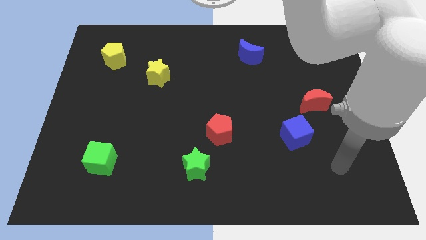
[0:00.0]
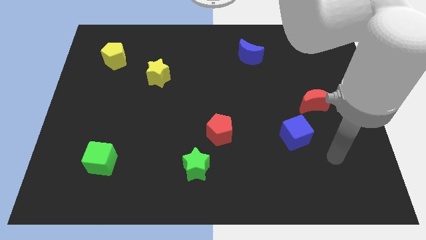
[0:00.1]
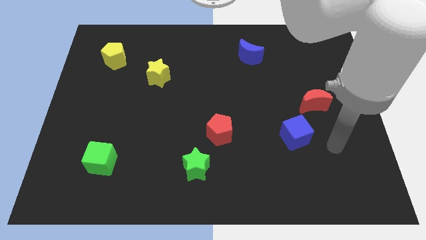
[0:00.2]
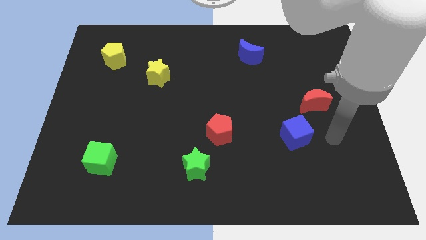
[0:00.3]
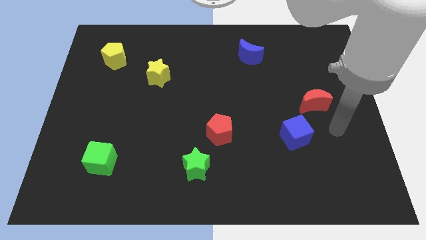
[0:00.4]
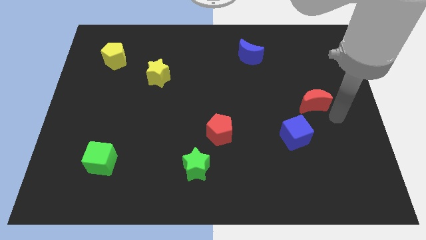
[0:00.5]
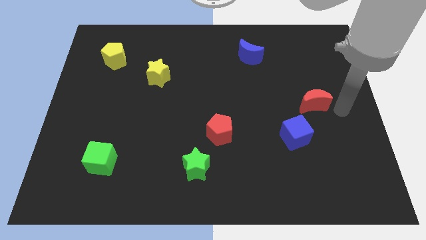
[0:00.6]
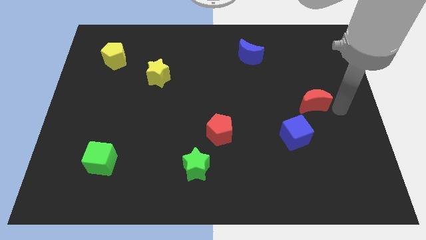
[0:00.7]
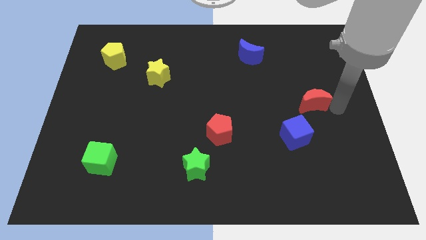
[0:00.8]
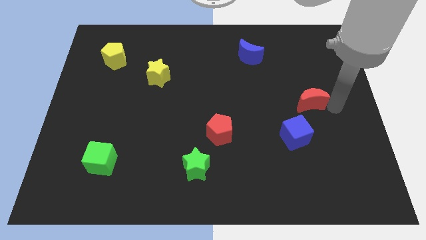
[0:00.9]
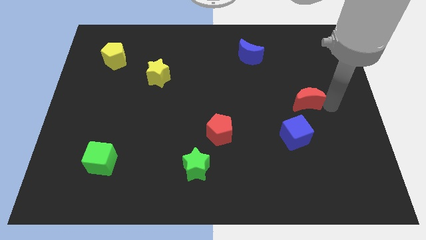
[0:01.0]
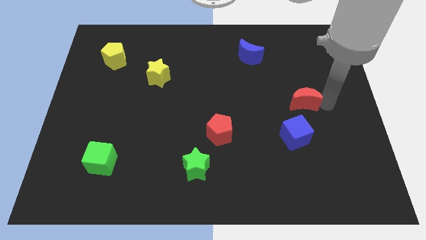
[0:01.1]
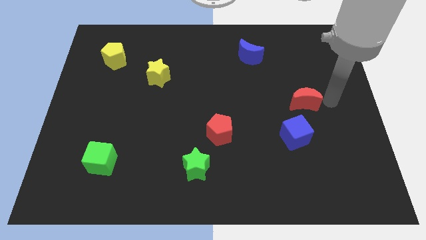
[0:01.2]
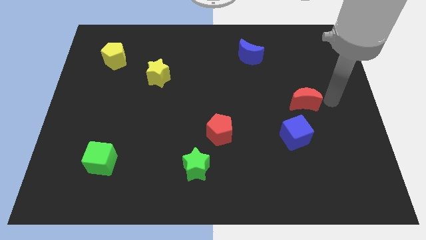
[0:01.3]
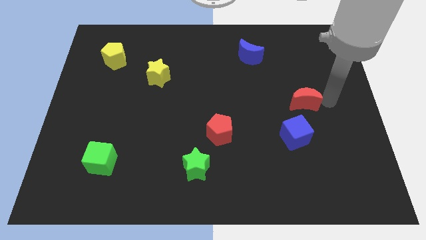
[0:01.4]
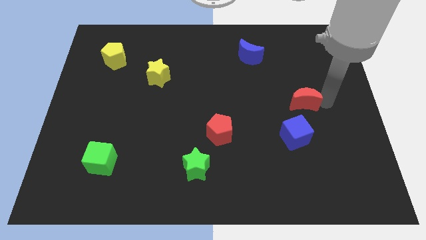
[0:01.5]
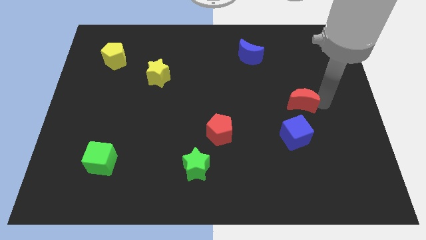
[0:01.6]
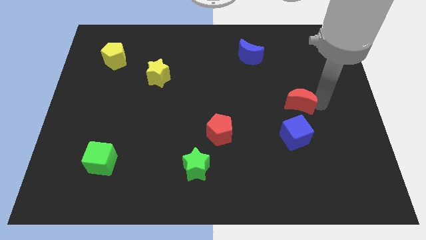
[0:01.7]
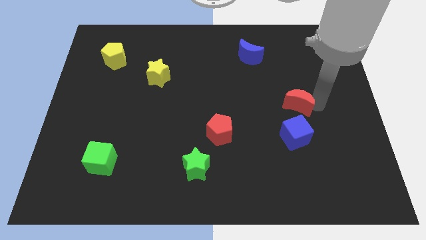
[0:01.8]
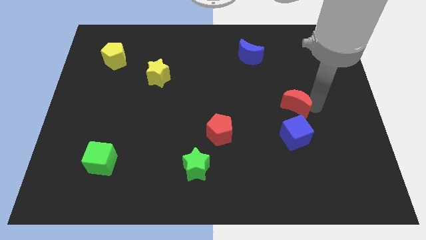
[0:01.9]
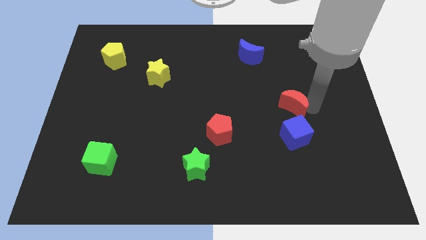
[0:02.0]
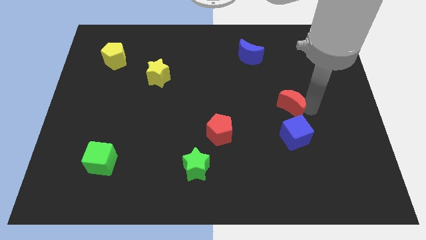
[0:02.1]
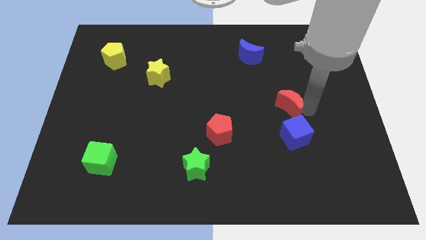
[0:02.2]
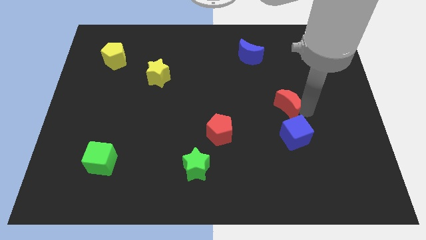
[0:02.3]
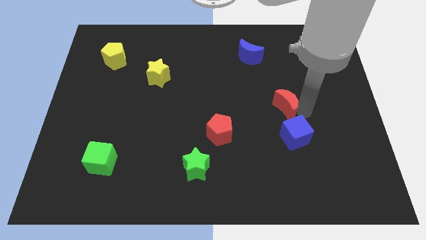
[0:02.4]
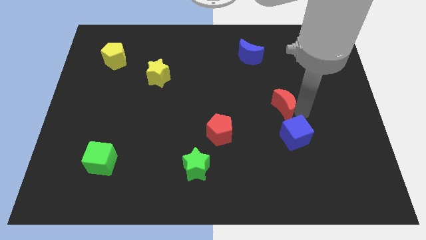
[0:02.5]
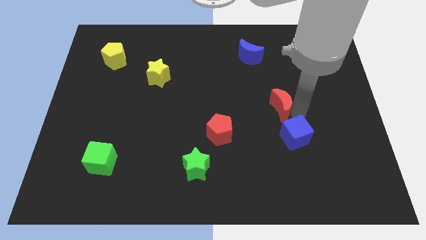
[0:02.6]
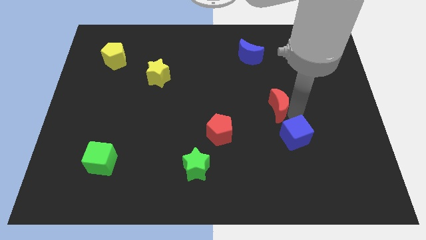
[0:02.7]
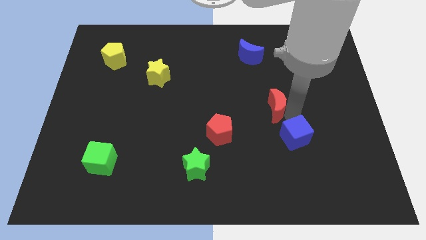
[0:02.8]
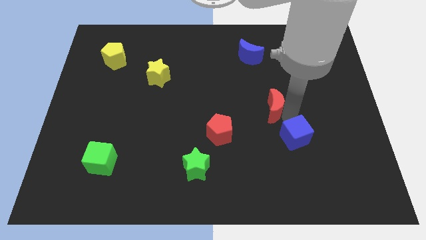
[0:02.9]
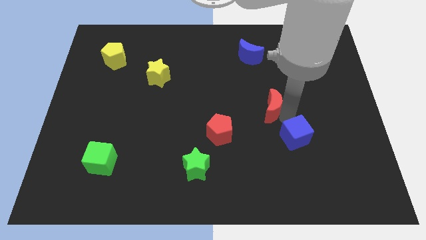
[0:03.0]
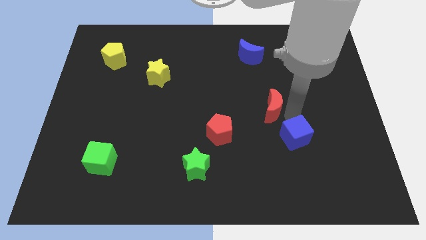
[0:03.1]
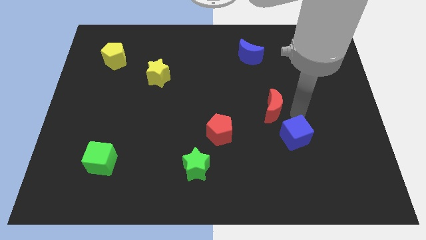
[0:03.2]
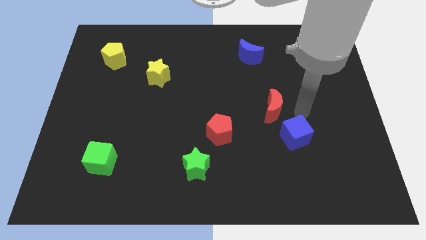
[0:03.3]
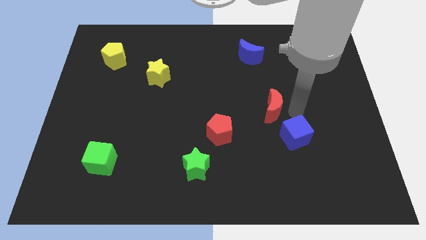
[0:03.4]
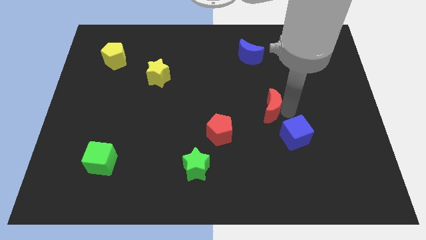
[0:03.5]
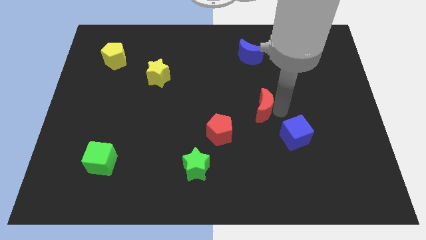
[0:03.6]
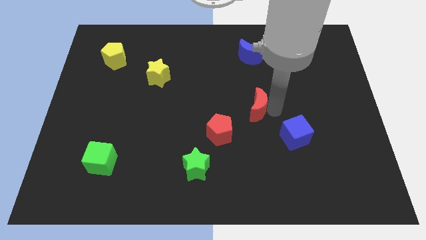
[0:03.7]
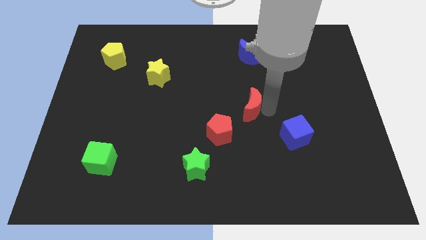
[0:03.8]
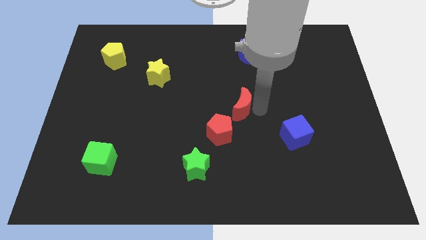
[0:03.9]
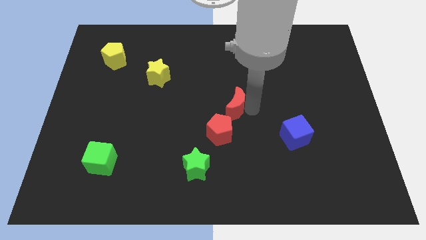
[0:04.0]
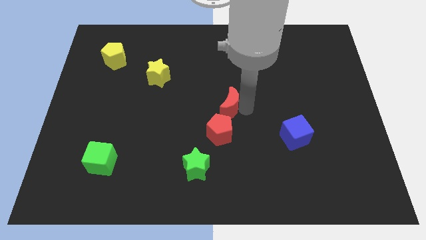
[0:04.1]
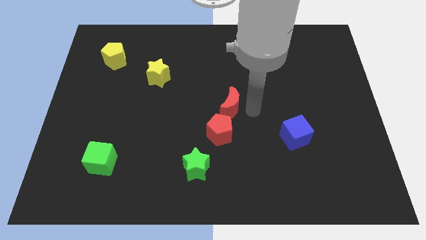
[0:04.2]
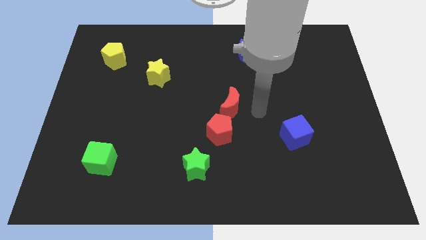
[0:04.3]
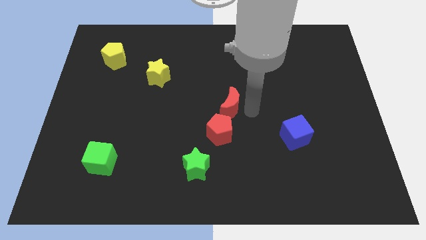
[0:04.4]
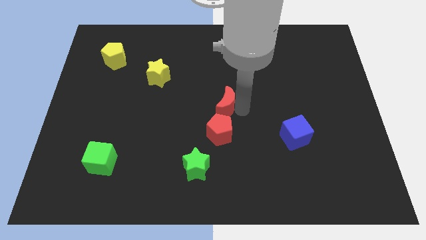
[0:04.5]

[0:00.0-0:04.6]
push the red moon left

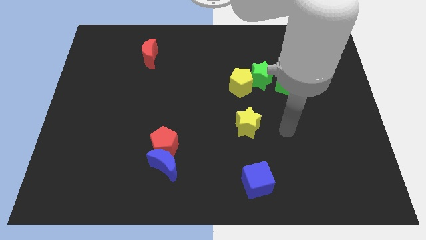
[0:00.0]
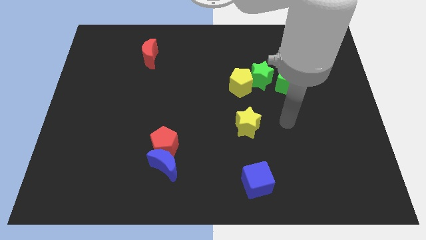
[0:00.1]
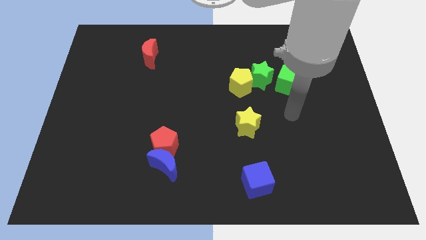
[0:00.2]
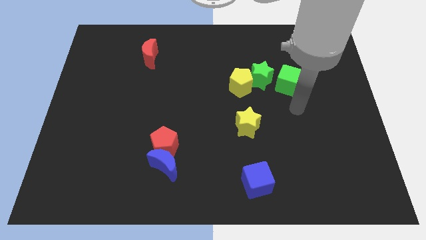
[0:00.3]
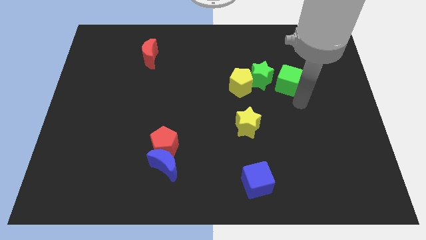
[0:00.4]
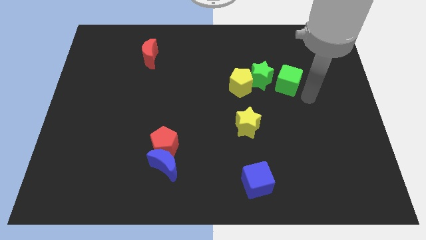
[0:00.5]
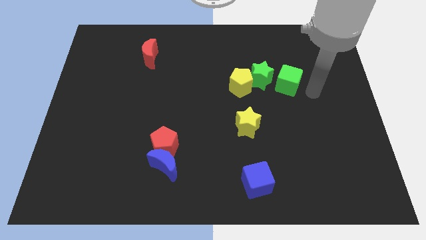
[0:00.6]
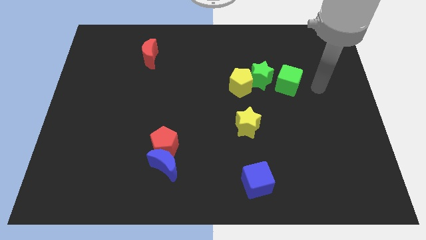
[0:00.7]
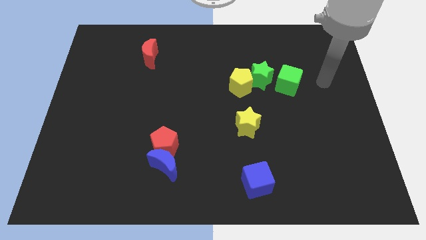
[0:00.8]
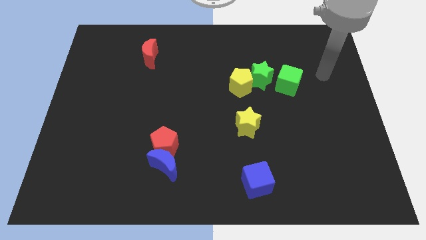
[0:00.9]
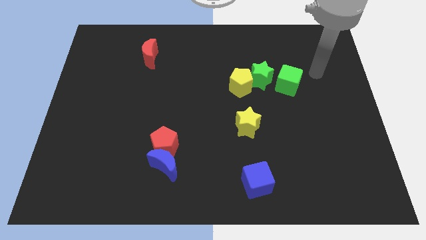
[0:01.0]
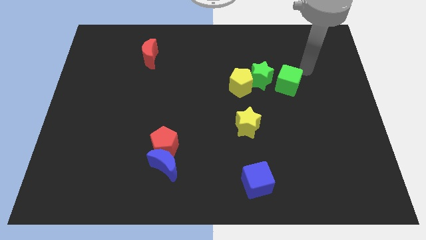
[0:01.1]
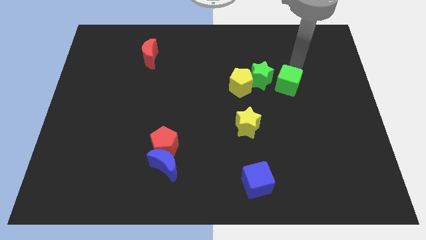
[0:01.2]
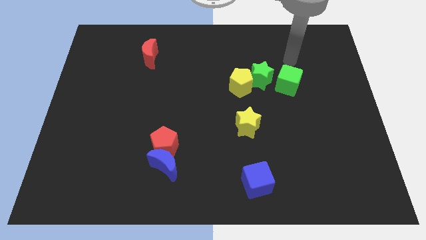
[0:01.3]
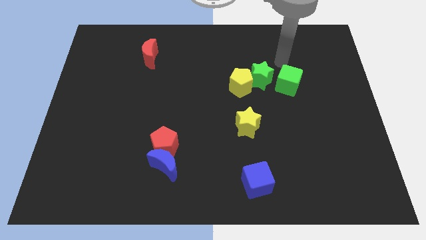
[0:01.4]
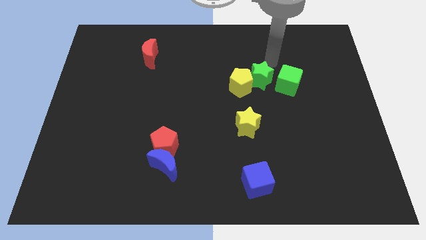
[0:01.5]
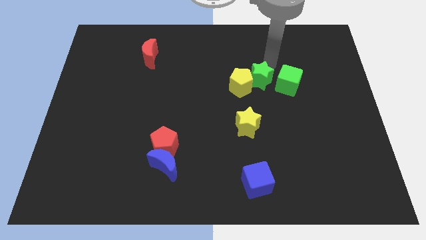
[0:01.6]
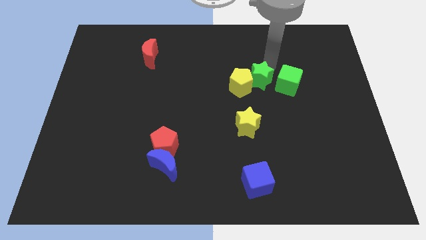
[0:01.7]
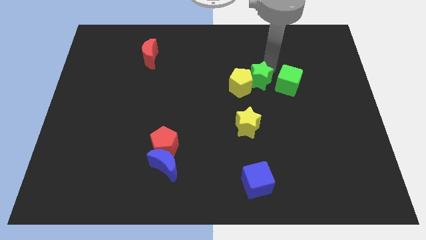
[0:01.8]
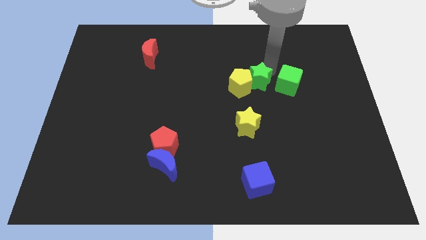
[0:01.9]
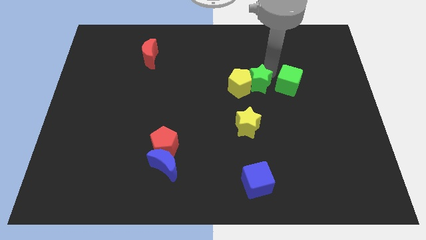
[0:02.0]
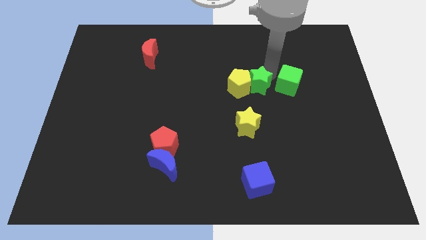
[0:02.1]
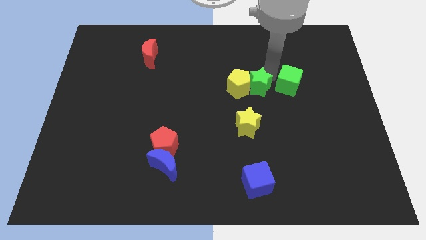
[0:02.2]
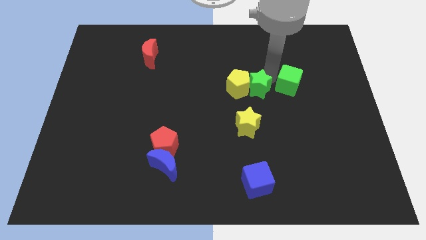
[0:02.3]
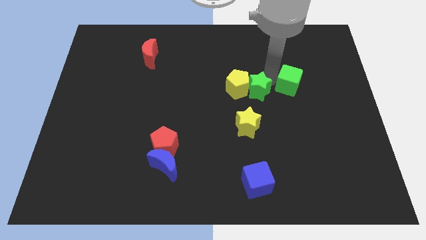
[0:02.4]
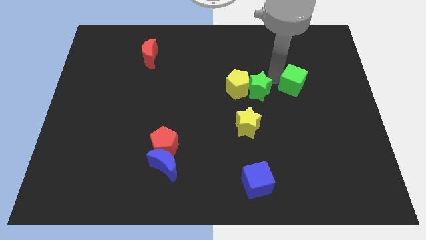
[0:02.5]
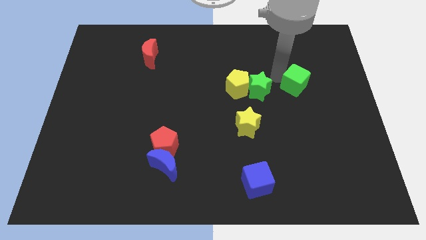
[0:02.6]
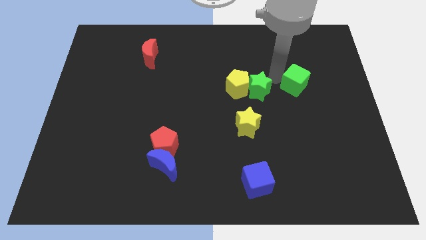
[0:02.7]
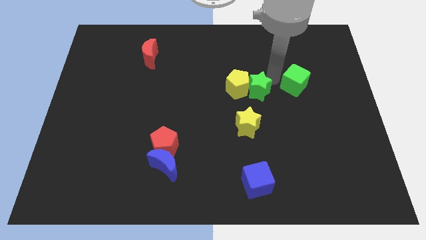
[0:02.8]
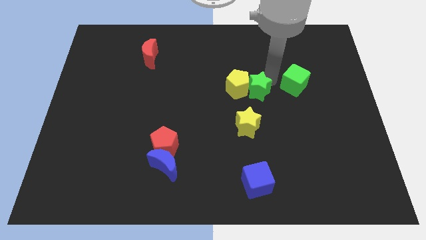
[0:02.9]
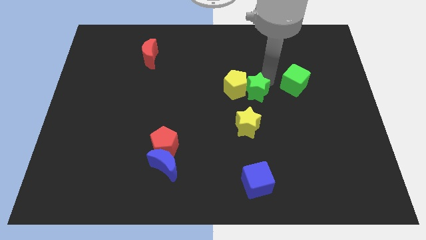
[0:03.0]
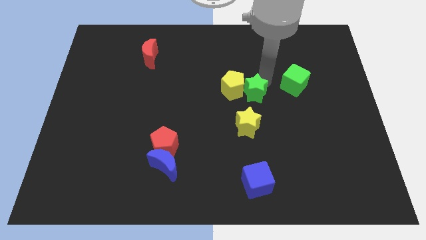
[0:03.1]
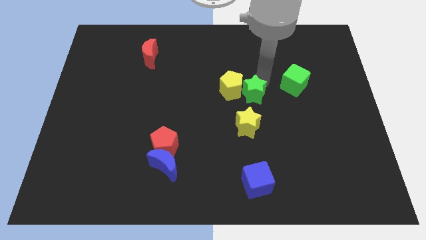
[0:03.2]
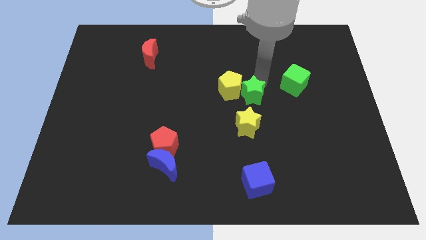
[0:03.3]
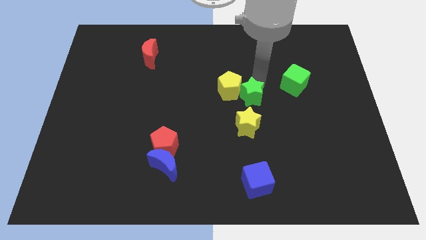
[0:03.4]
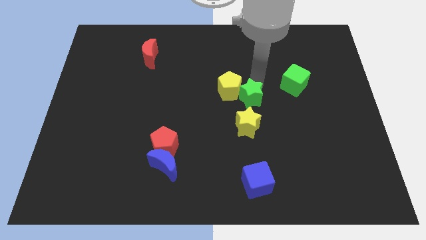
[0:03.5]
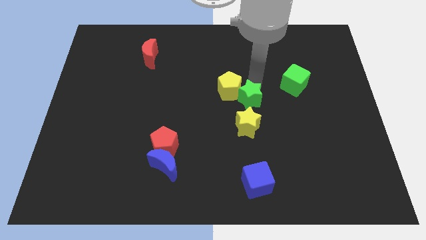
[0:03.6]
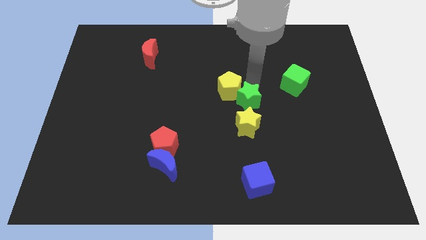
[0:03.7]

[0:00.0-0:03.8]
slightly move the green star downwards and left diagonally
